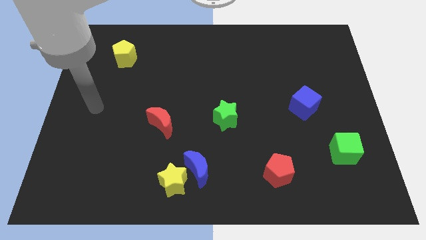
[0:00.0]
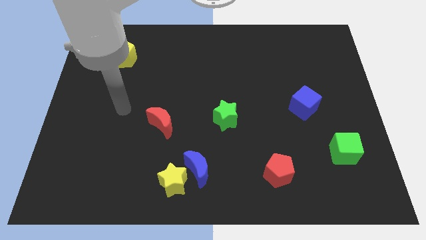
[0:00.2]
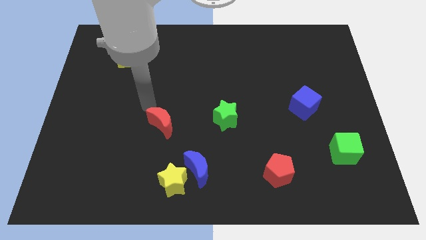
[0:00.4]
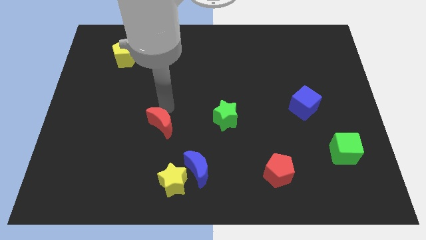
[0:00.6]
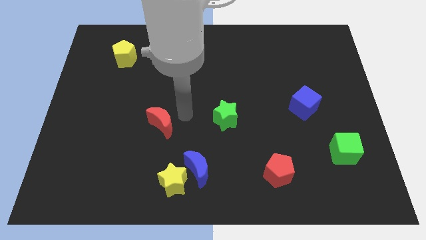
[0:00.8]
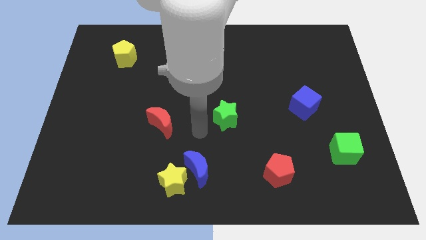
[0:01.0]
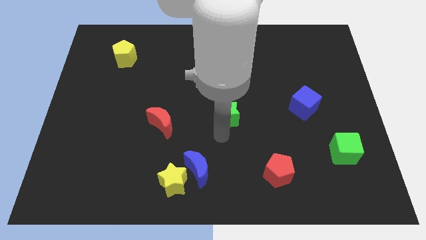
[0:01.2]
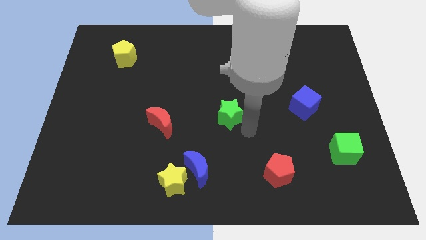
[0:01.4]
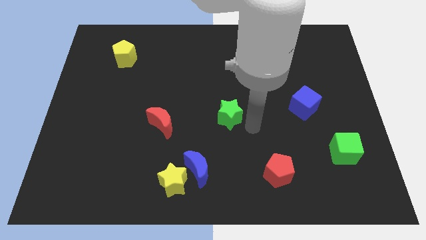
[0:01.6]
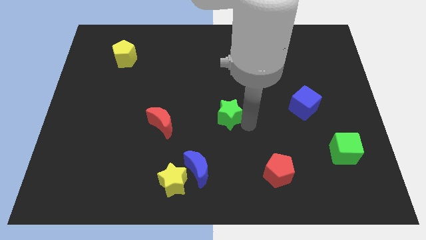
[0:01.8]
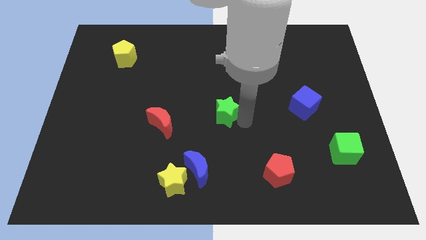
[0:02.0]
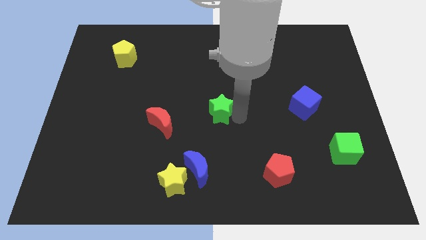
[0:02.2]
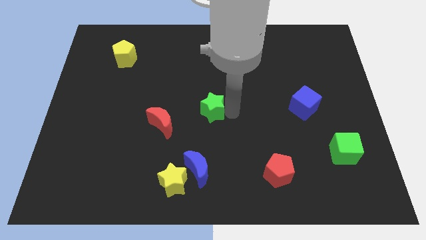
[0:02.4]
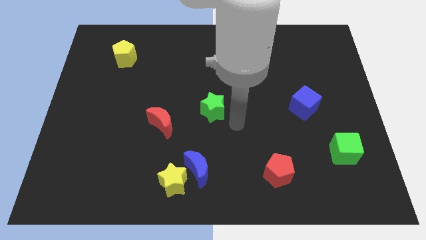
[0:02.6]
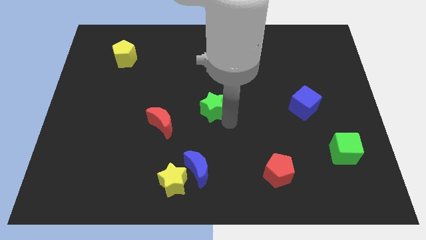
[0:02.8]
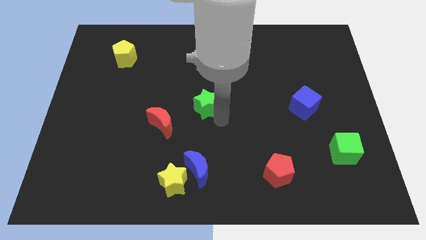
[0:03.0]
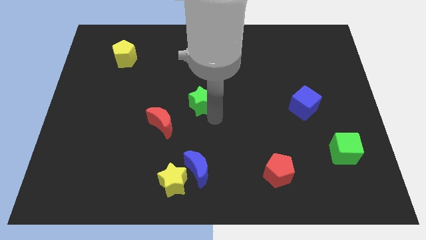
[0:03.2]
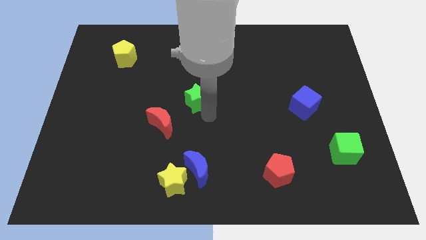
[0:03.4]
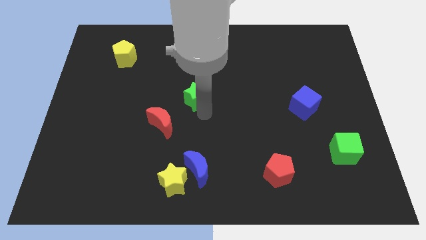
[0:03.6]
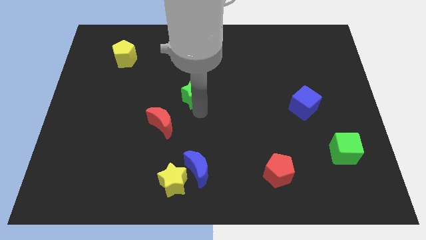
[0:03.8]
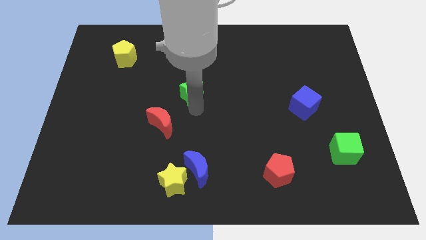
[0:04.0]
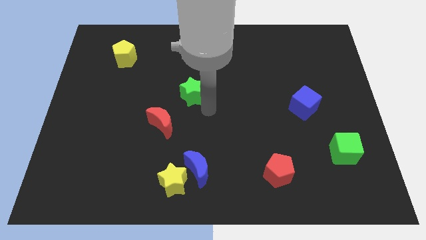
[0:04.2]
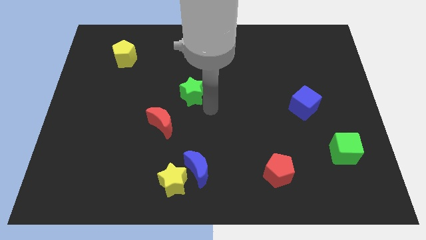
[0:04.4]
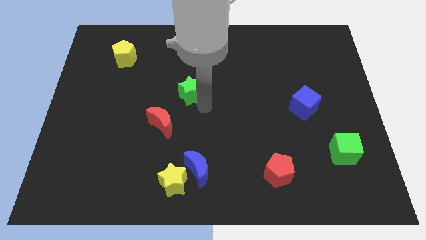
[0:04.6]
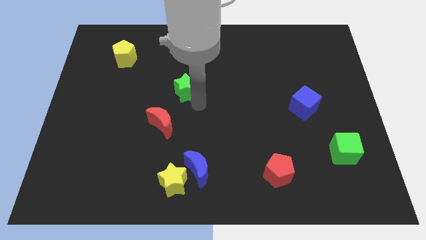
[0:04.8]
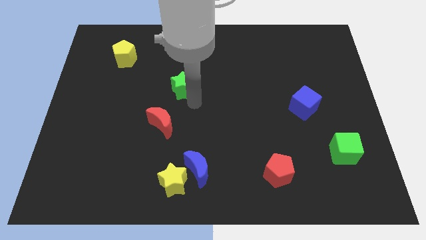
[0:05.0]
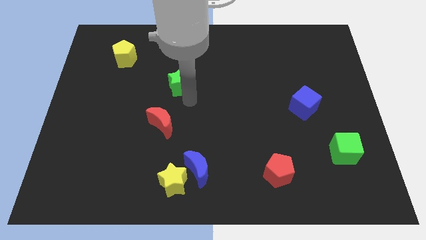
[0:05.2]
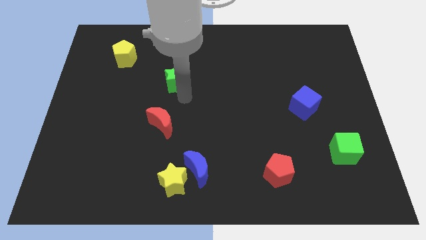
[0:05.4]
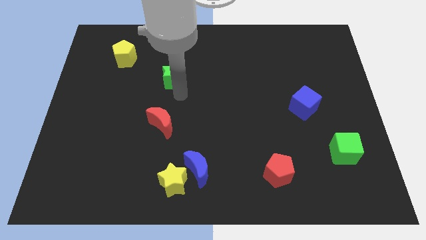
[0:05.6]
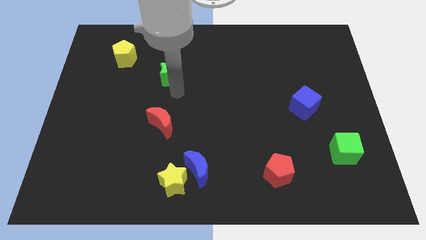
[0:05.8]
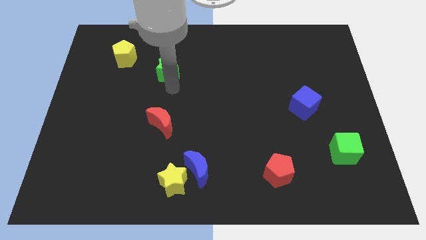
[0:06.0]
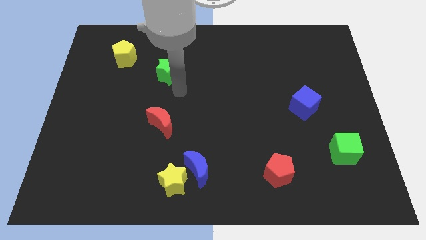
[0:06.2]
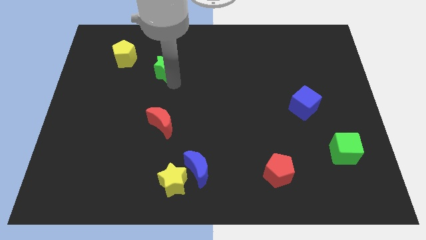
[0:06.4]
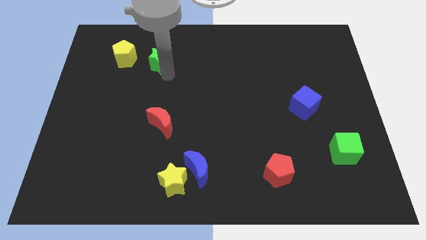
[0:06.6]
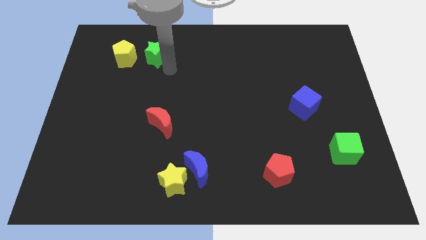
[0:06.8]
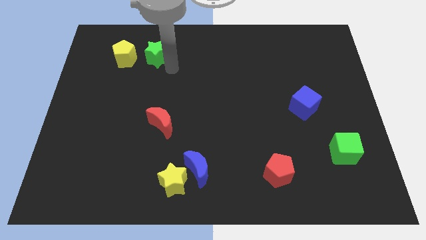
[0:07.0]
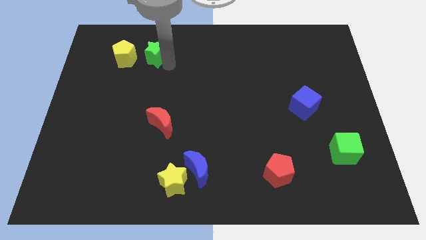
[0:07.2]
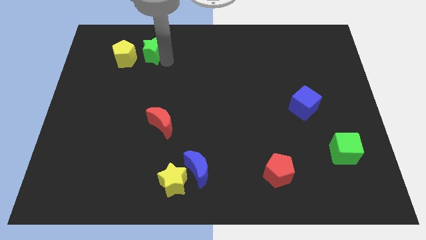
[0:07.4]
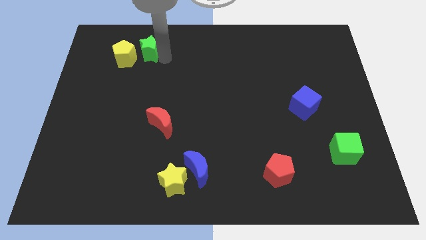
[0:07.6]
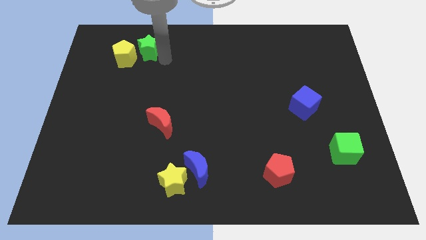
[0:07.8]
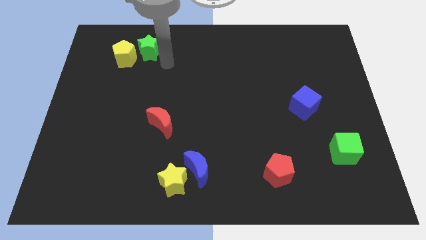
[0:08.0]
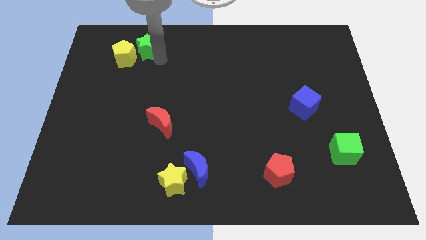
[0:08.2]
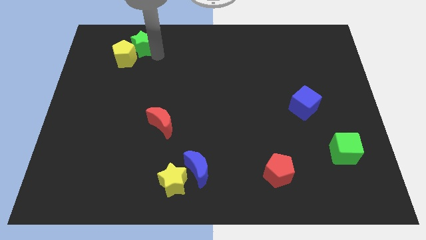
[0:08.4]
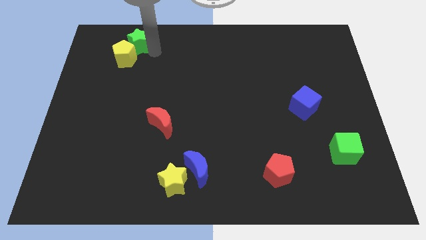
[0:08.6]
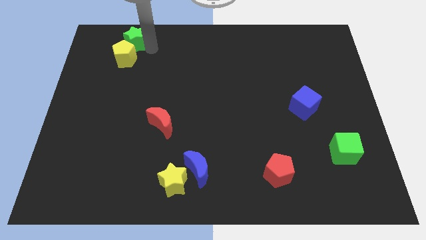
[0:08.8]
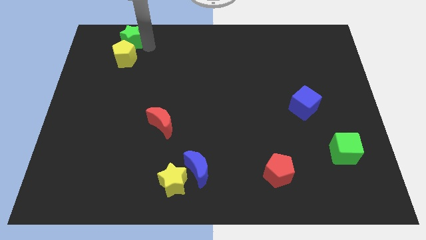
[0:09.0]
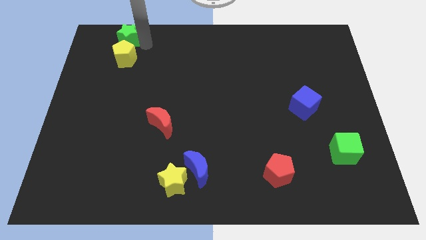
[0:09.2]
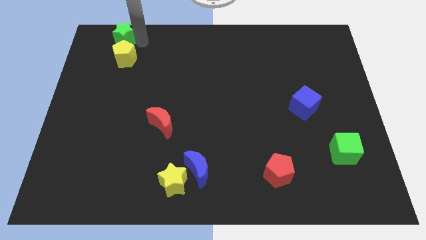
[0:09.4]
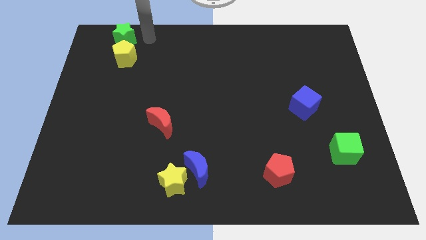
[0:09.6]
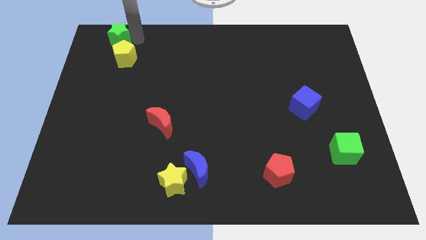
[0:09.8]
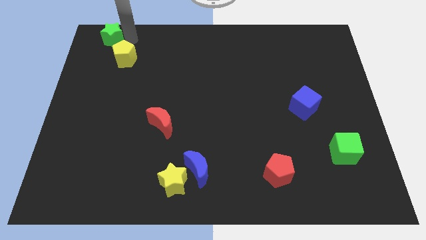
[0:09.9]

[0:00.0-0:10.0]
push the green star to the upper left corner
